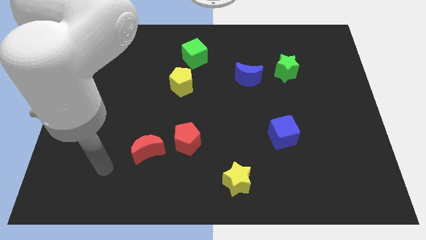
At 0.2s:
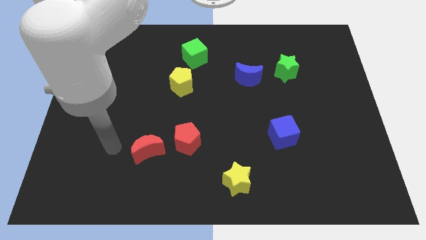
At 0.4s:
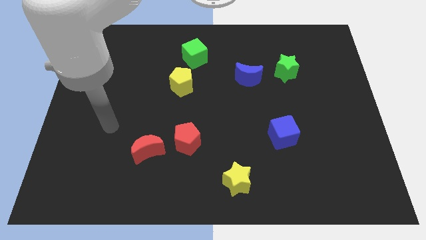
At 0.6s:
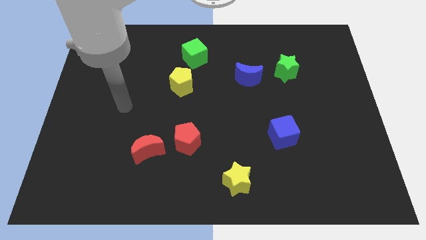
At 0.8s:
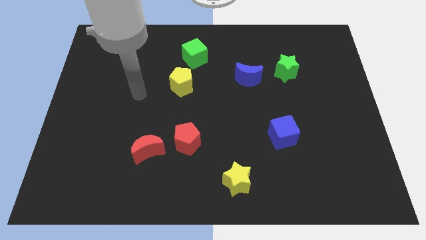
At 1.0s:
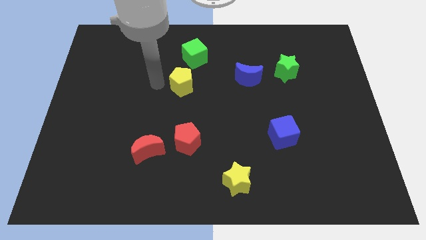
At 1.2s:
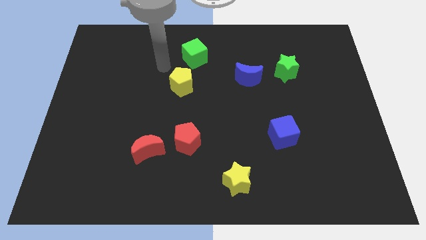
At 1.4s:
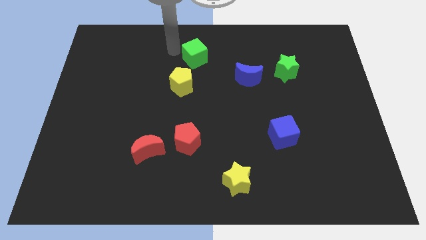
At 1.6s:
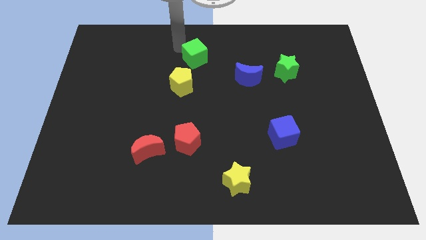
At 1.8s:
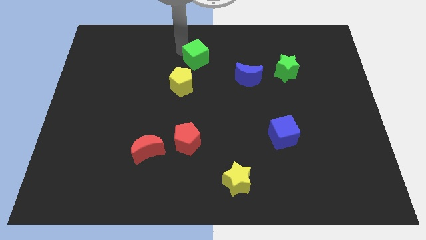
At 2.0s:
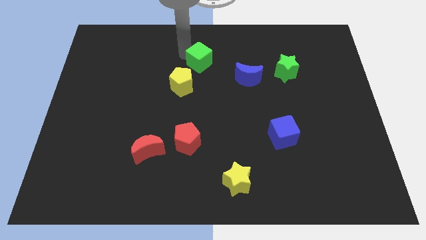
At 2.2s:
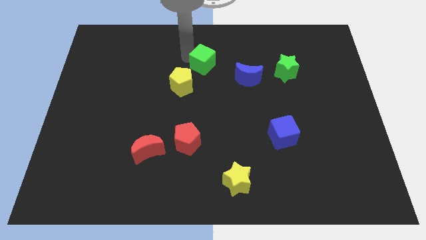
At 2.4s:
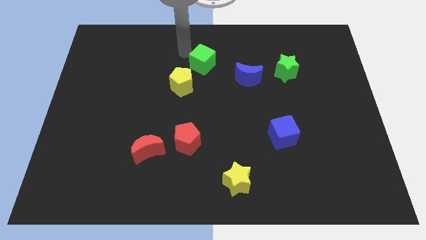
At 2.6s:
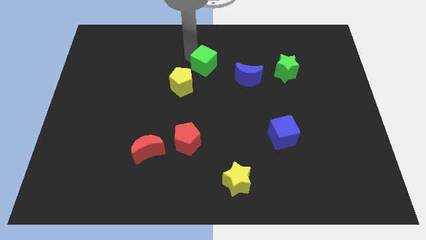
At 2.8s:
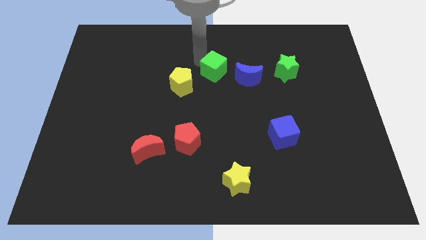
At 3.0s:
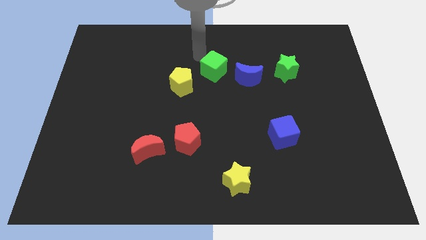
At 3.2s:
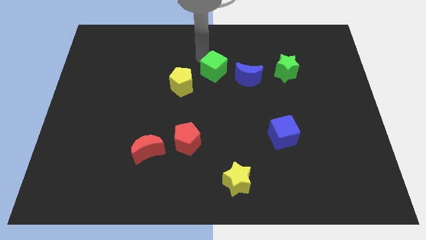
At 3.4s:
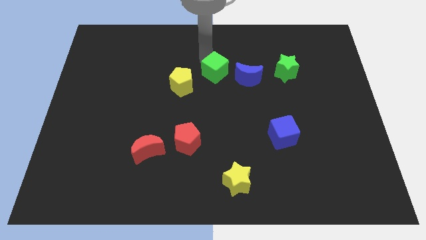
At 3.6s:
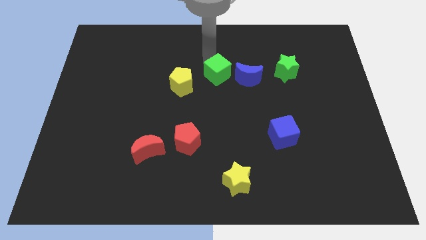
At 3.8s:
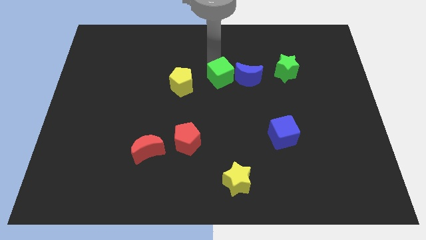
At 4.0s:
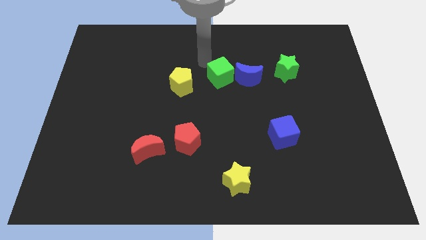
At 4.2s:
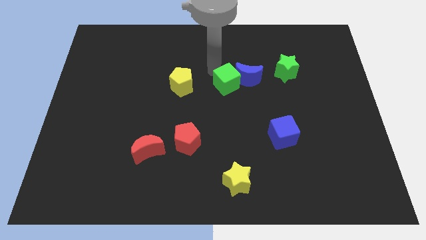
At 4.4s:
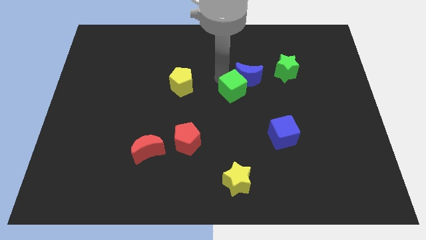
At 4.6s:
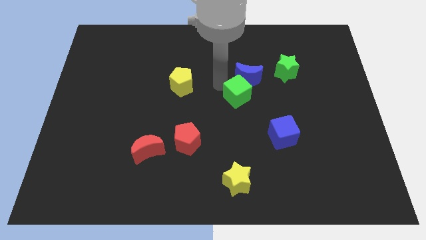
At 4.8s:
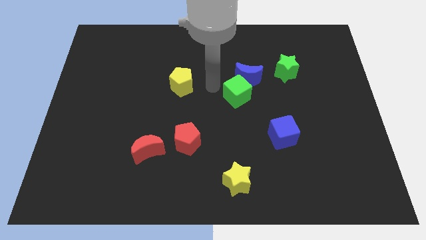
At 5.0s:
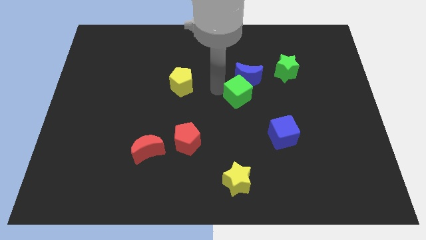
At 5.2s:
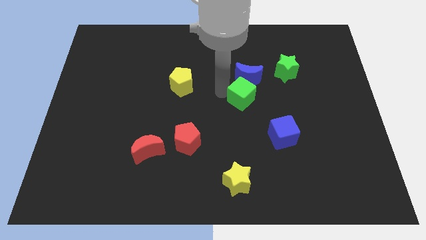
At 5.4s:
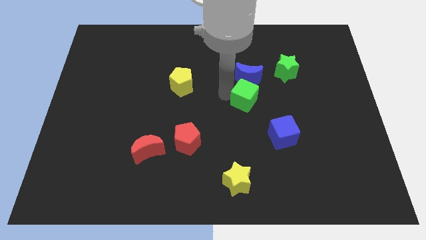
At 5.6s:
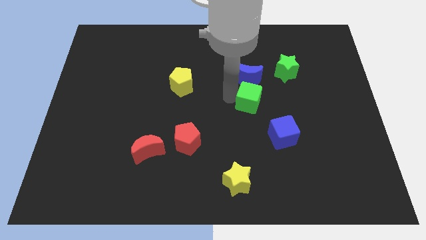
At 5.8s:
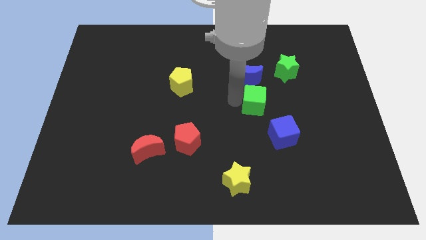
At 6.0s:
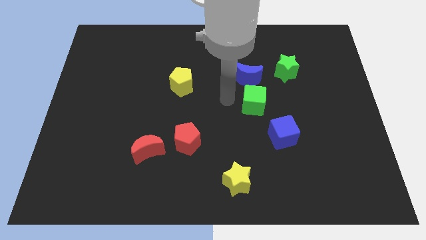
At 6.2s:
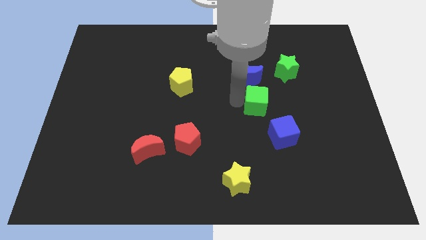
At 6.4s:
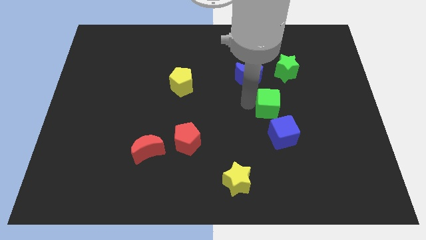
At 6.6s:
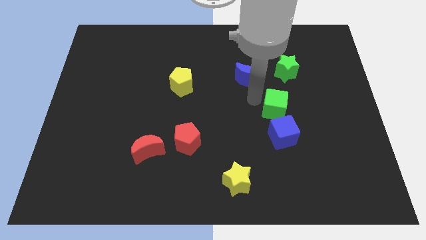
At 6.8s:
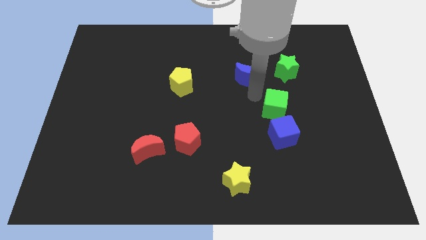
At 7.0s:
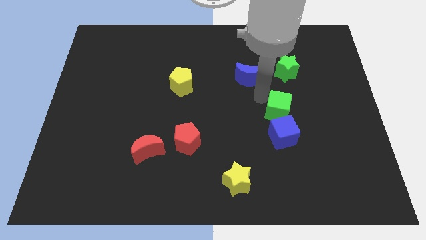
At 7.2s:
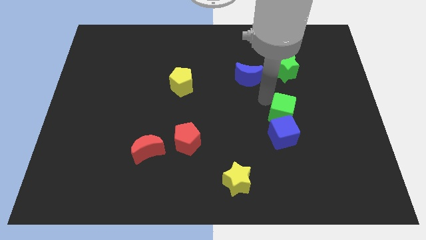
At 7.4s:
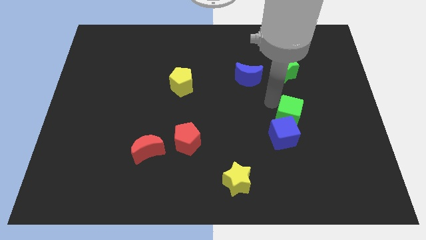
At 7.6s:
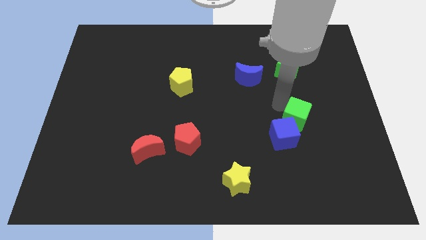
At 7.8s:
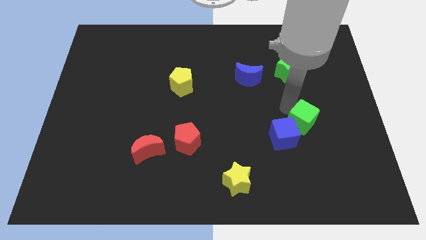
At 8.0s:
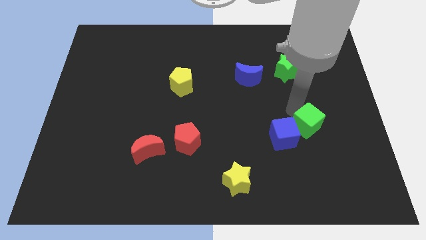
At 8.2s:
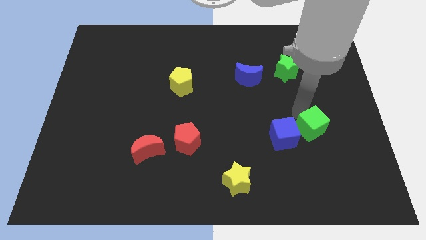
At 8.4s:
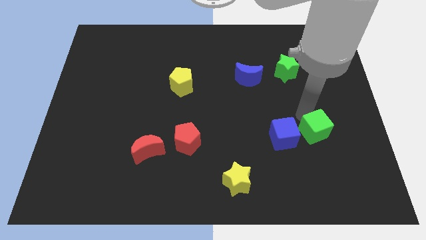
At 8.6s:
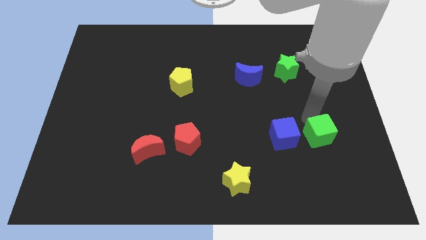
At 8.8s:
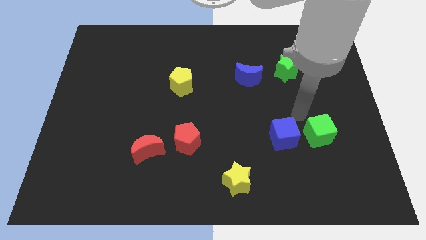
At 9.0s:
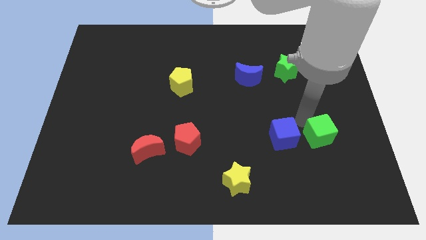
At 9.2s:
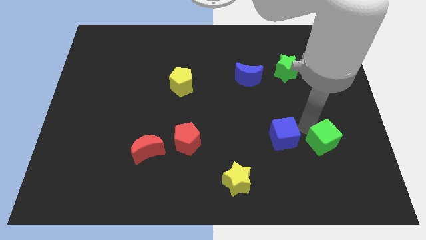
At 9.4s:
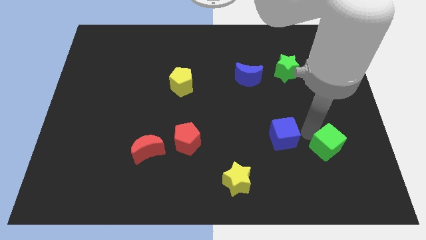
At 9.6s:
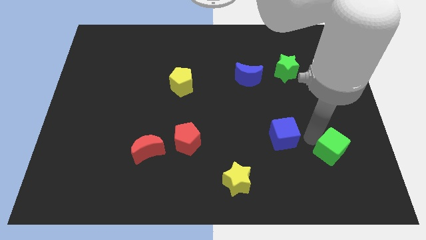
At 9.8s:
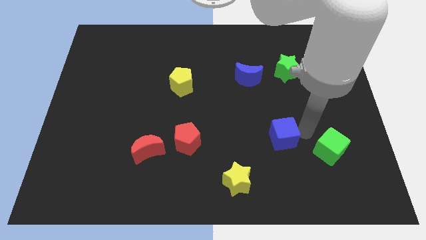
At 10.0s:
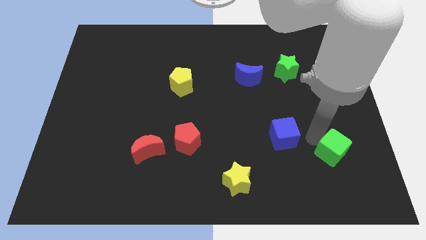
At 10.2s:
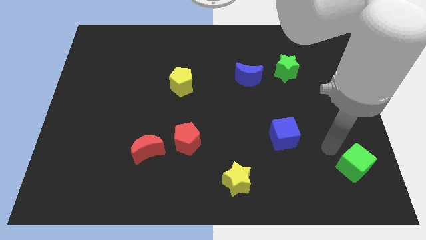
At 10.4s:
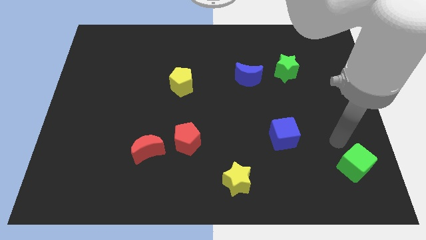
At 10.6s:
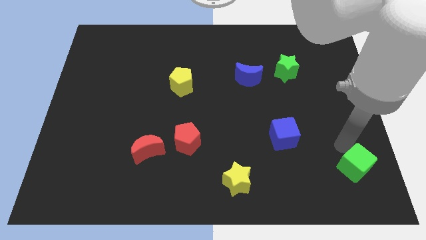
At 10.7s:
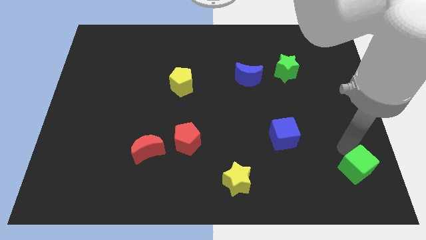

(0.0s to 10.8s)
move the green cube to the bottom right of the board

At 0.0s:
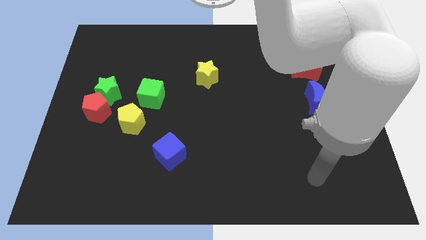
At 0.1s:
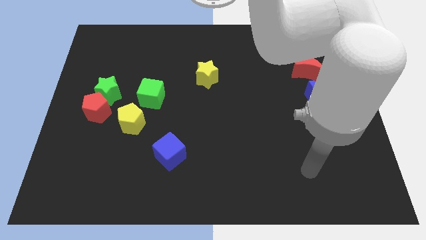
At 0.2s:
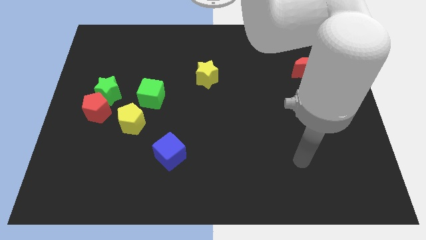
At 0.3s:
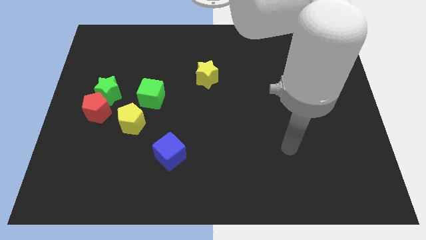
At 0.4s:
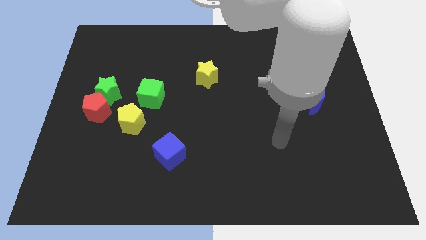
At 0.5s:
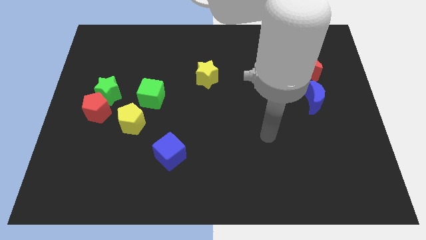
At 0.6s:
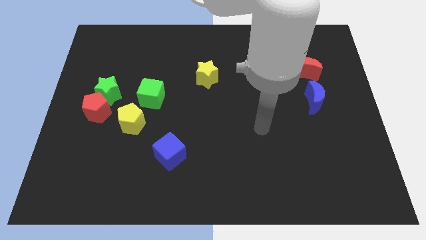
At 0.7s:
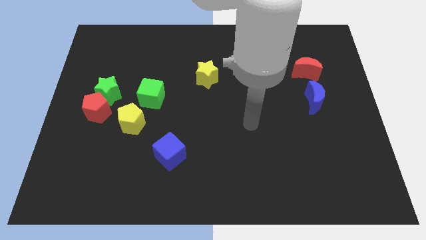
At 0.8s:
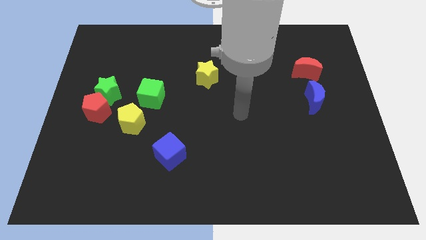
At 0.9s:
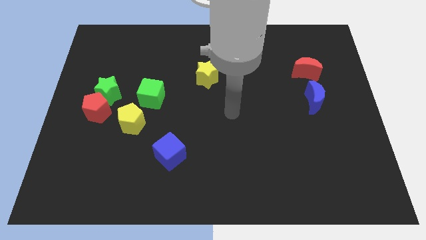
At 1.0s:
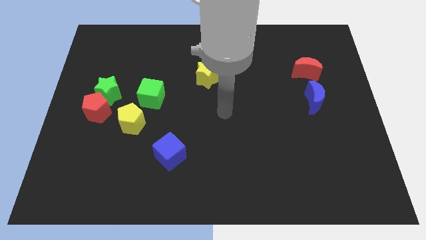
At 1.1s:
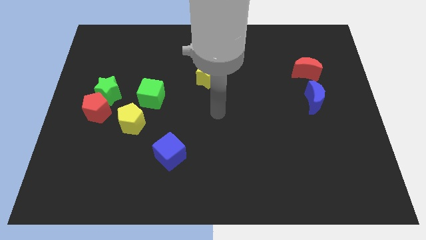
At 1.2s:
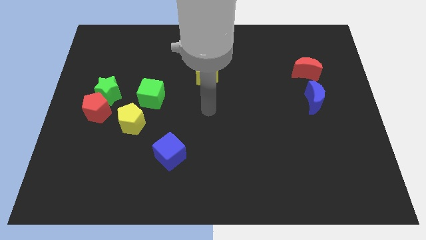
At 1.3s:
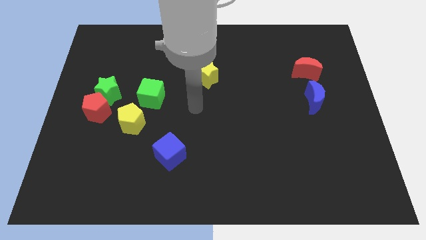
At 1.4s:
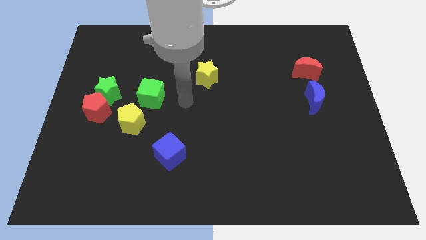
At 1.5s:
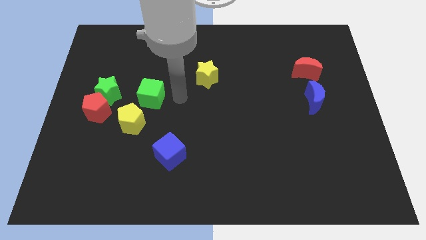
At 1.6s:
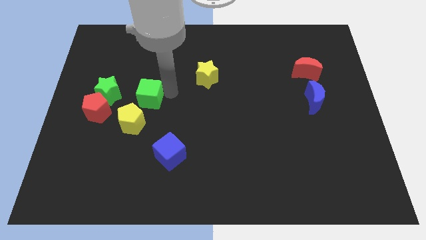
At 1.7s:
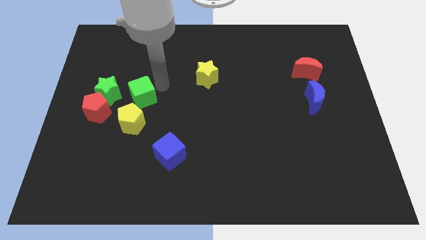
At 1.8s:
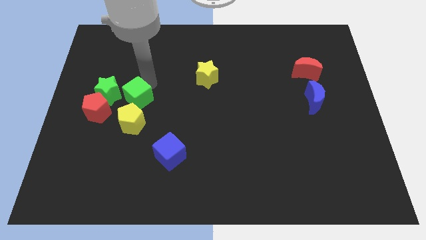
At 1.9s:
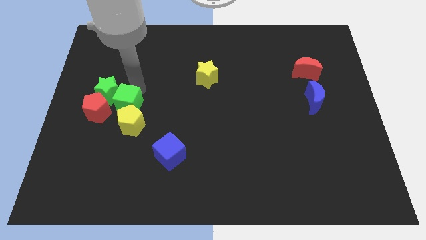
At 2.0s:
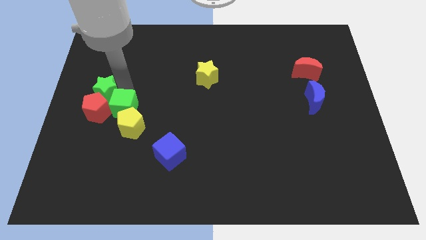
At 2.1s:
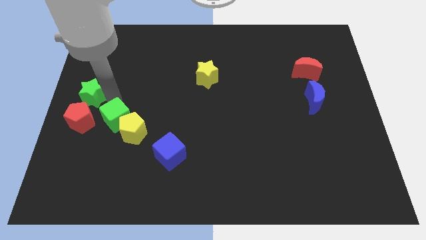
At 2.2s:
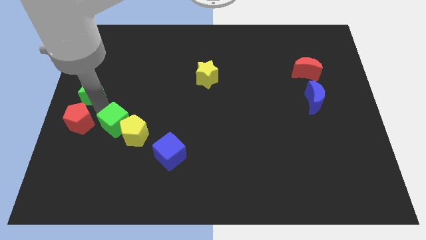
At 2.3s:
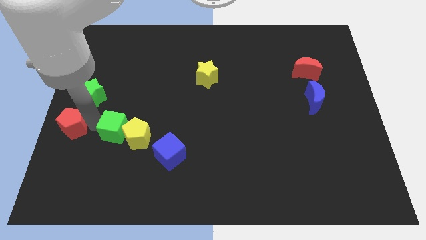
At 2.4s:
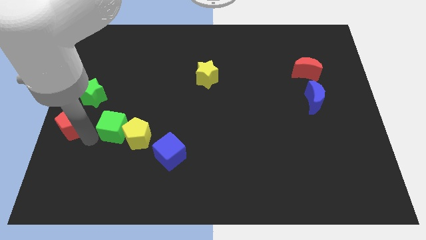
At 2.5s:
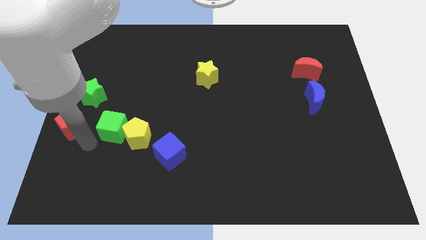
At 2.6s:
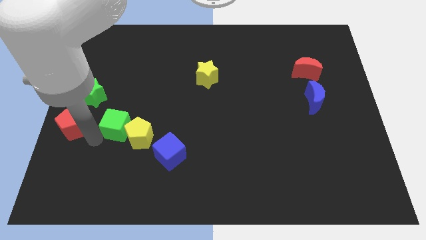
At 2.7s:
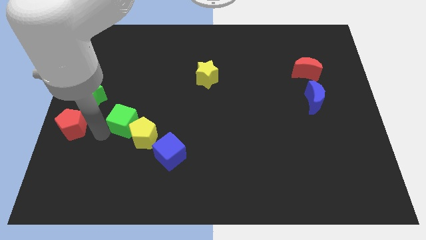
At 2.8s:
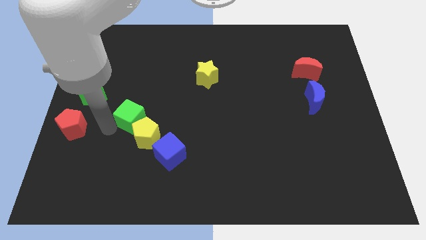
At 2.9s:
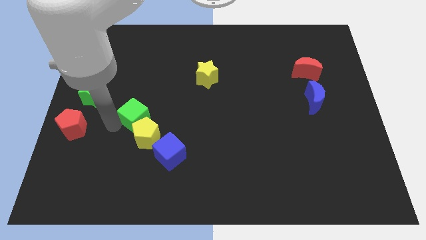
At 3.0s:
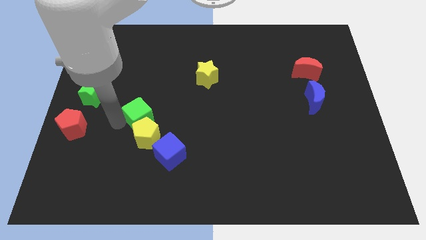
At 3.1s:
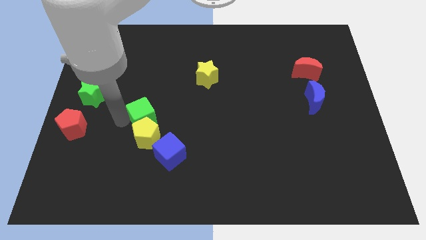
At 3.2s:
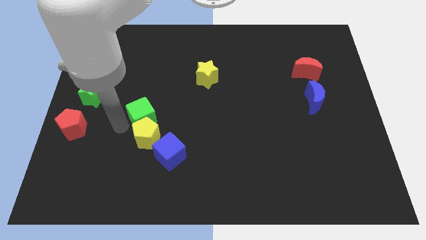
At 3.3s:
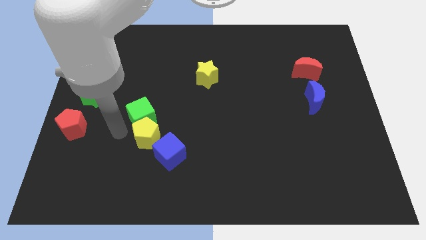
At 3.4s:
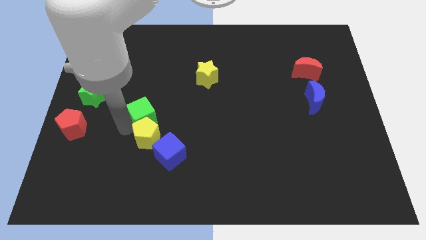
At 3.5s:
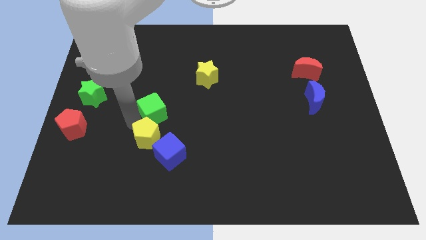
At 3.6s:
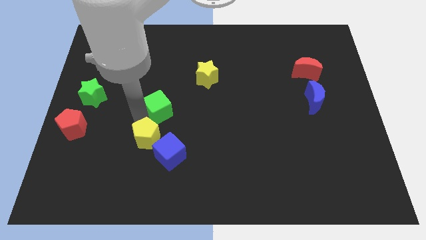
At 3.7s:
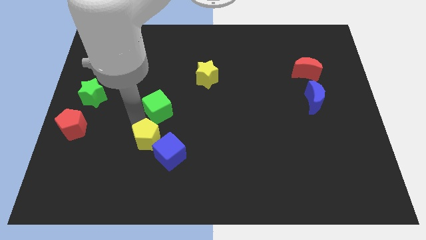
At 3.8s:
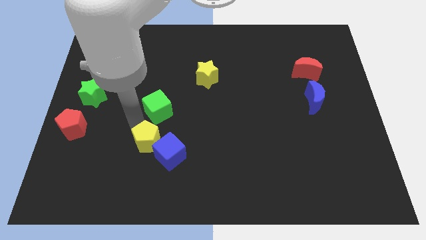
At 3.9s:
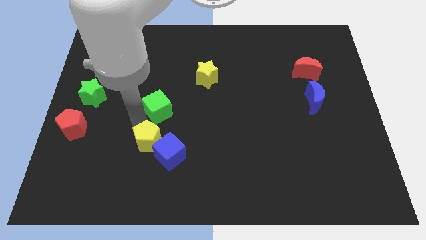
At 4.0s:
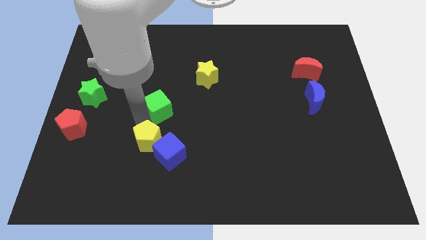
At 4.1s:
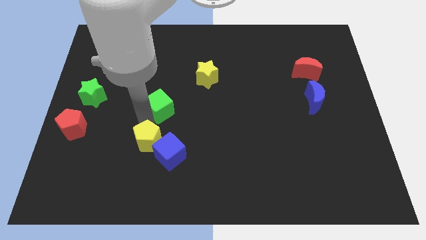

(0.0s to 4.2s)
slide the green cube to the center
